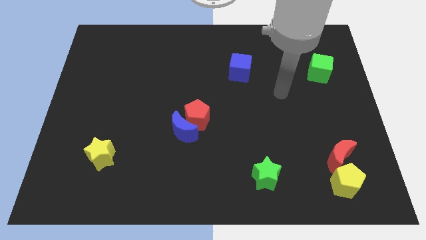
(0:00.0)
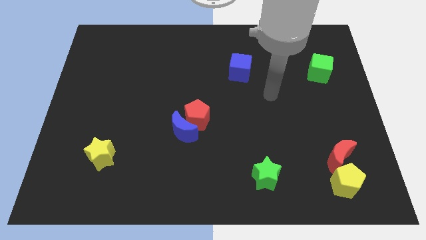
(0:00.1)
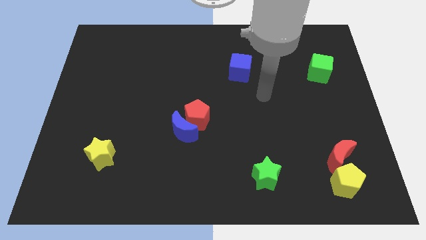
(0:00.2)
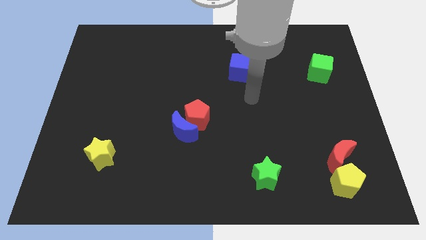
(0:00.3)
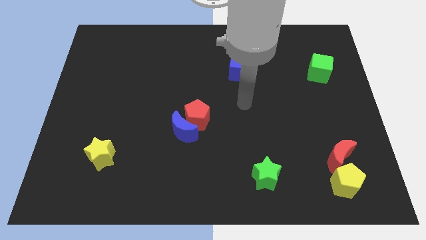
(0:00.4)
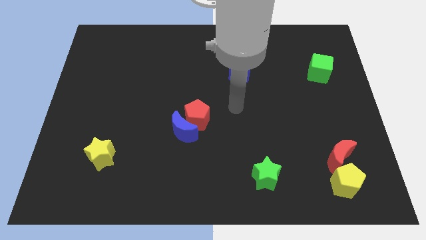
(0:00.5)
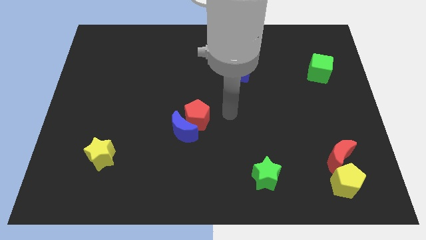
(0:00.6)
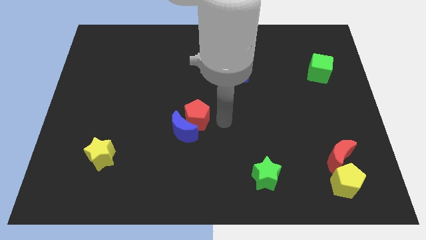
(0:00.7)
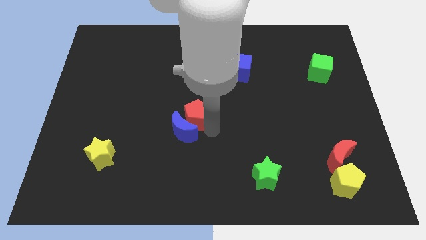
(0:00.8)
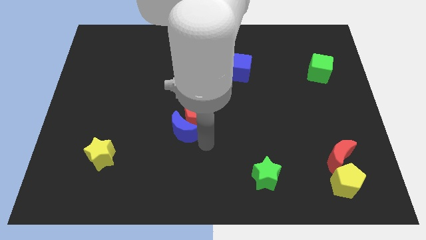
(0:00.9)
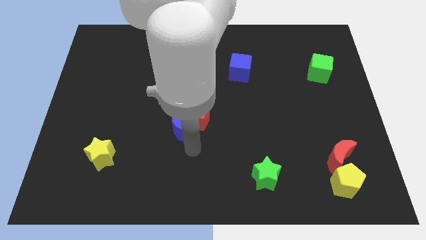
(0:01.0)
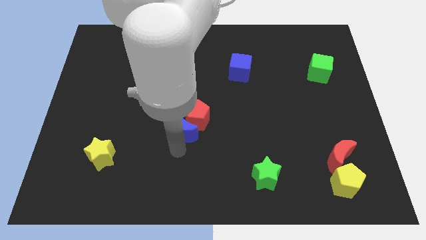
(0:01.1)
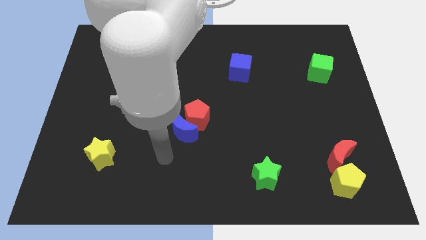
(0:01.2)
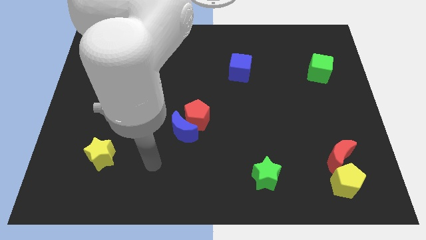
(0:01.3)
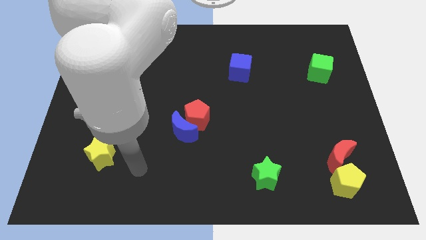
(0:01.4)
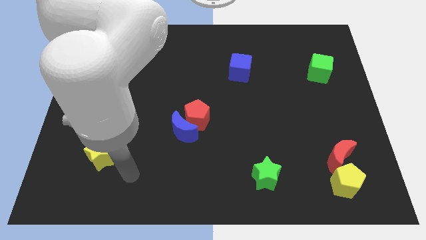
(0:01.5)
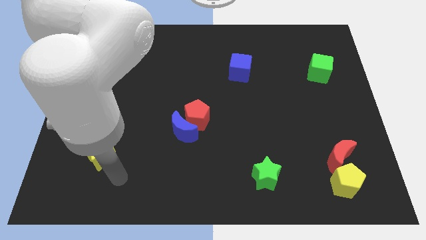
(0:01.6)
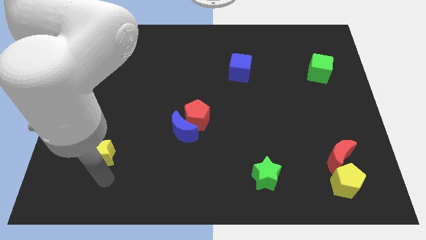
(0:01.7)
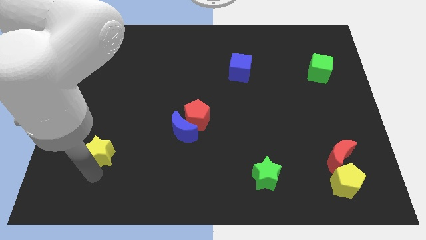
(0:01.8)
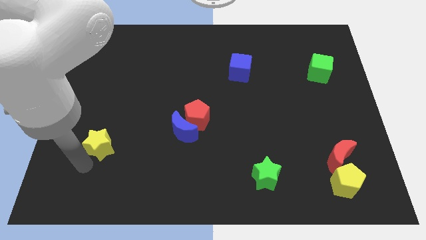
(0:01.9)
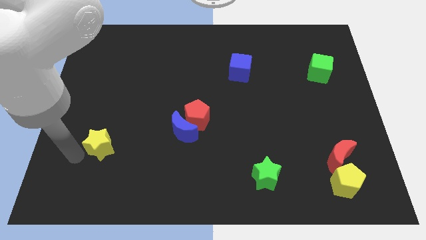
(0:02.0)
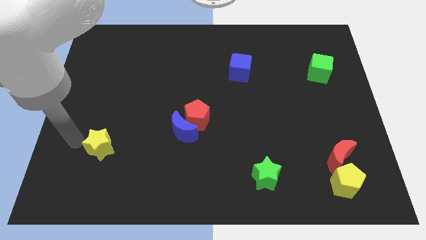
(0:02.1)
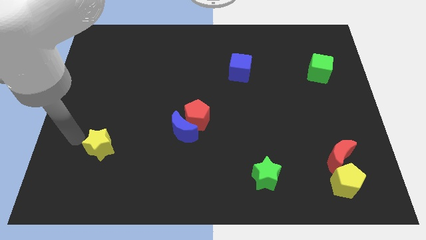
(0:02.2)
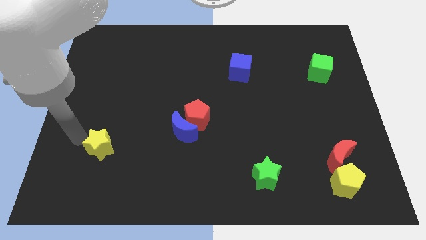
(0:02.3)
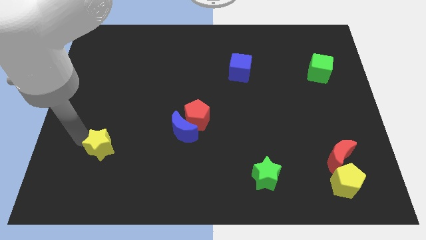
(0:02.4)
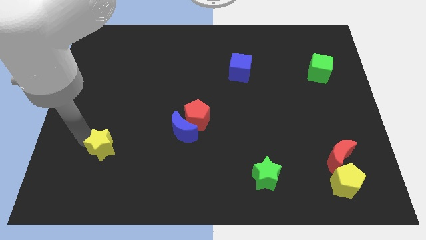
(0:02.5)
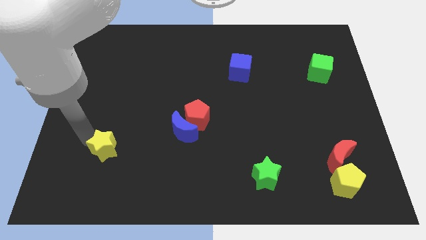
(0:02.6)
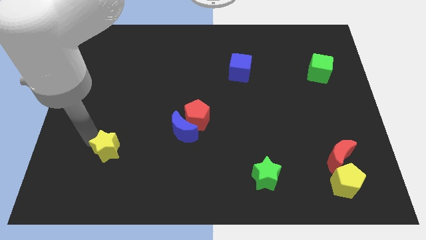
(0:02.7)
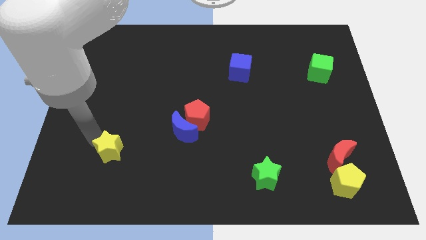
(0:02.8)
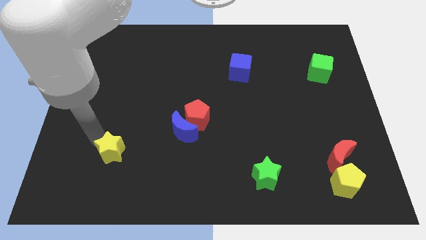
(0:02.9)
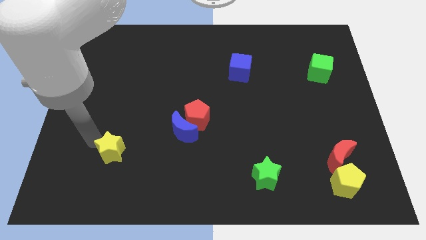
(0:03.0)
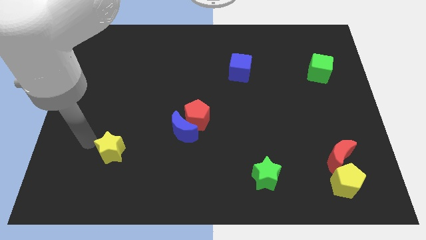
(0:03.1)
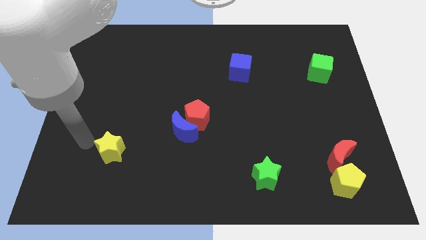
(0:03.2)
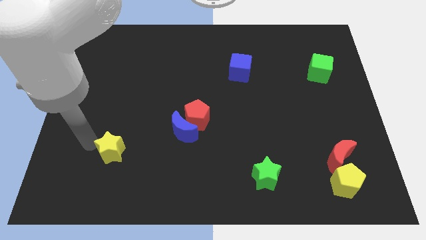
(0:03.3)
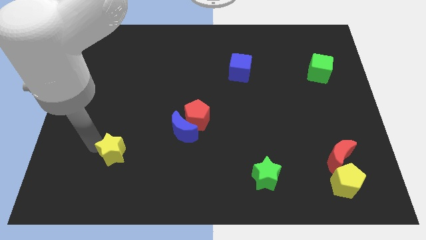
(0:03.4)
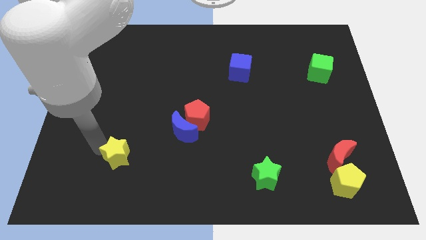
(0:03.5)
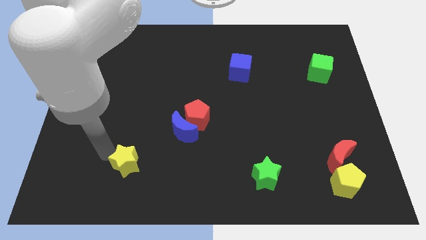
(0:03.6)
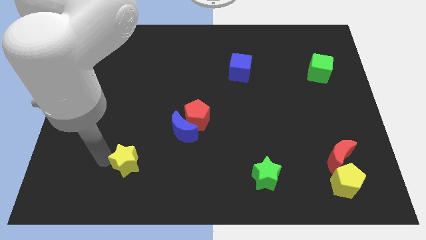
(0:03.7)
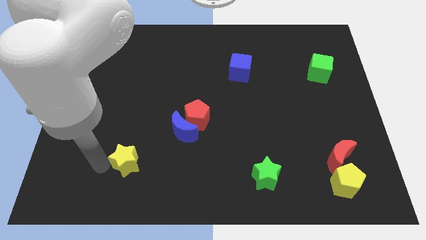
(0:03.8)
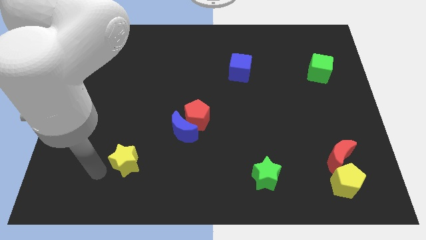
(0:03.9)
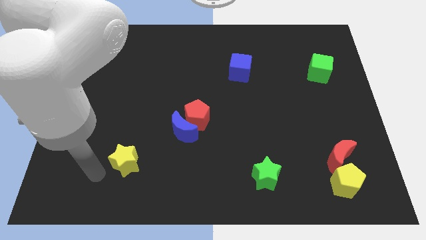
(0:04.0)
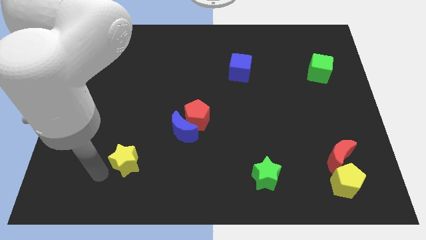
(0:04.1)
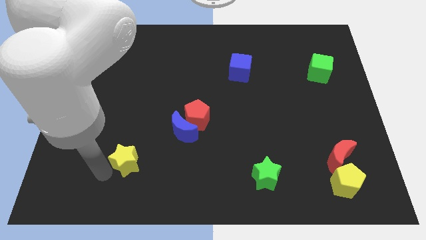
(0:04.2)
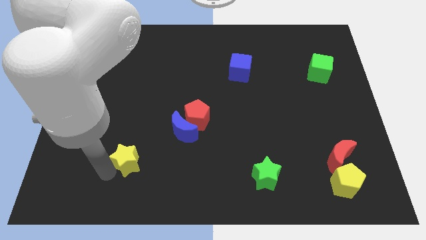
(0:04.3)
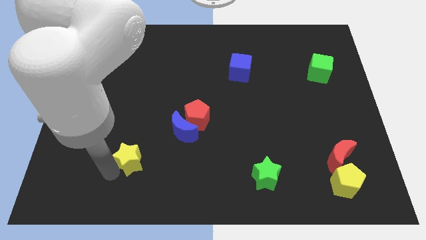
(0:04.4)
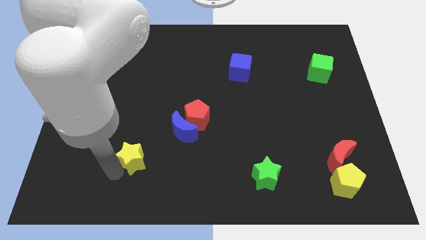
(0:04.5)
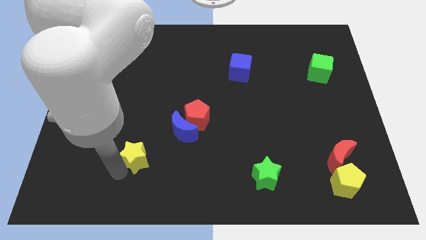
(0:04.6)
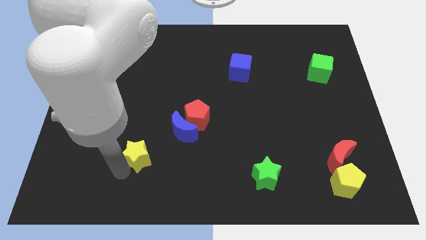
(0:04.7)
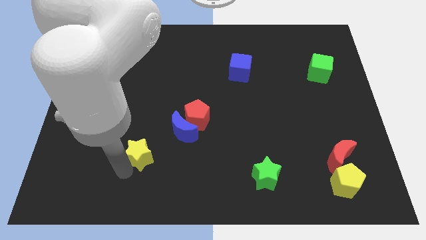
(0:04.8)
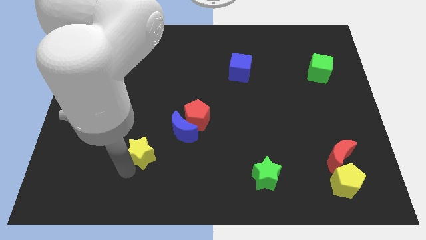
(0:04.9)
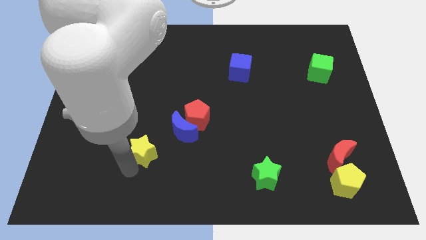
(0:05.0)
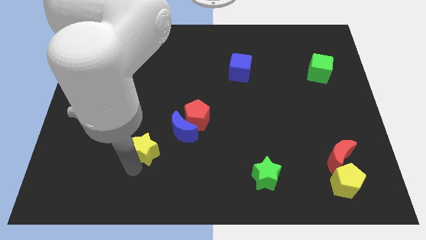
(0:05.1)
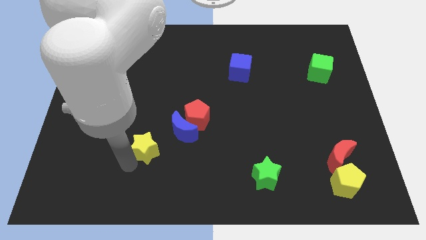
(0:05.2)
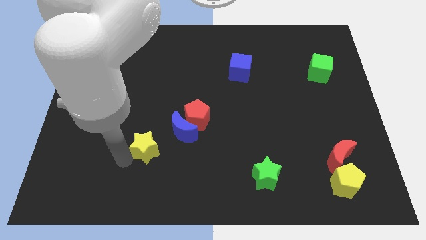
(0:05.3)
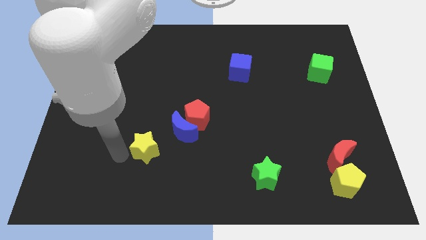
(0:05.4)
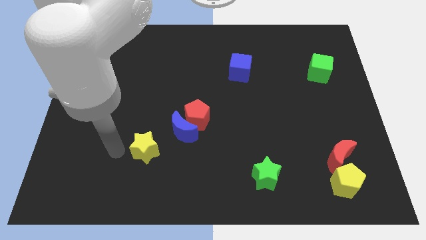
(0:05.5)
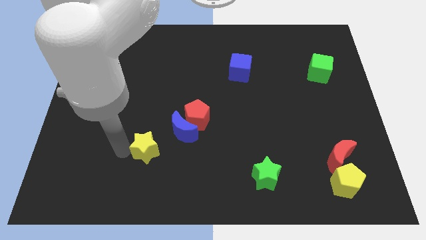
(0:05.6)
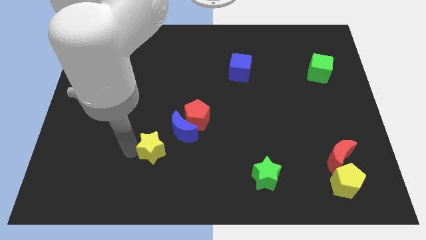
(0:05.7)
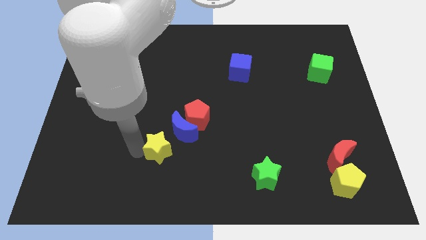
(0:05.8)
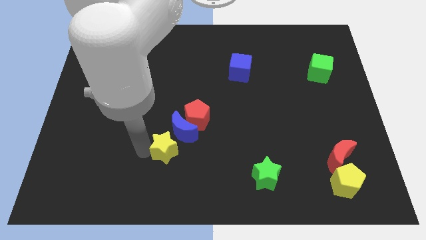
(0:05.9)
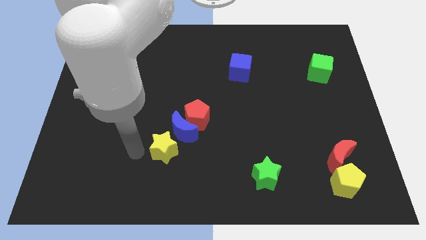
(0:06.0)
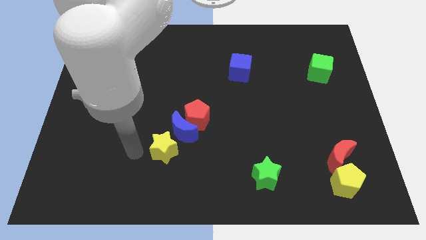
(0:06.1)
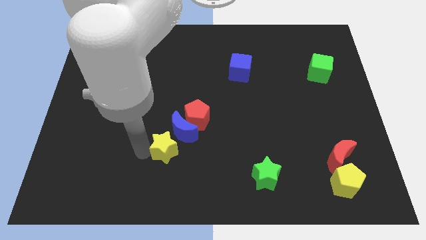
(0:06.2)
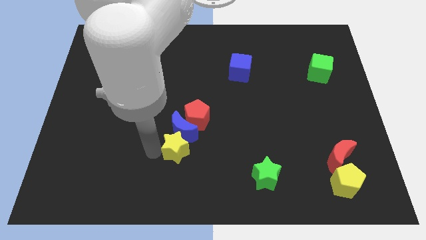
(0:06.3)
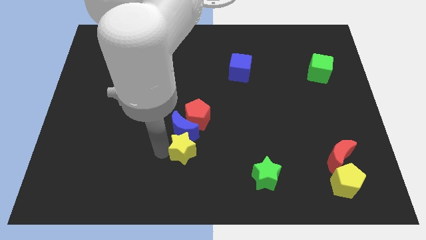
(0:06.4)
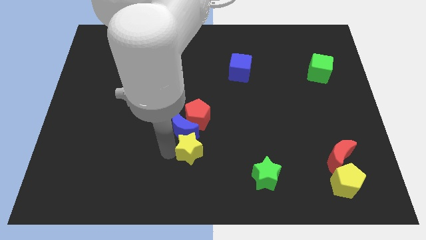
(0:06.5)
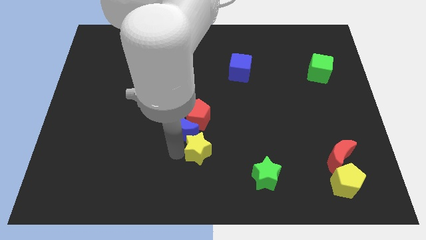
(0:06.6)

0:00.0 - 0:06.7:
slide the yellow star to the right

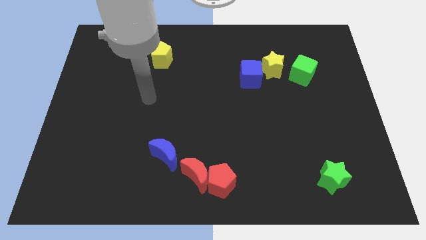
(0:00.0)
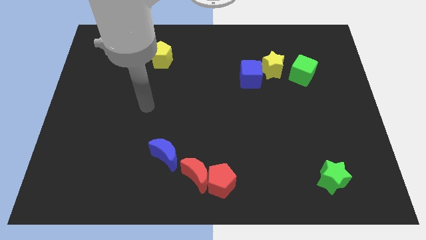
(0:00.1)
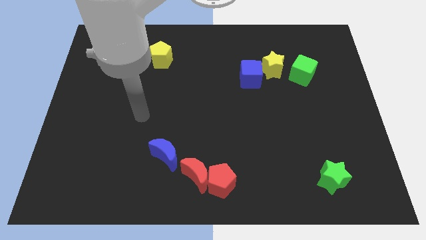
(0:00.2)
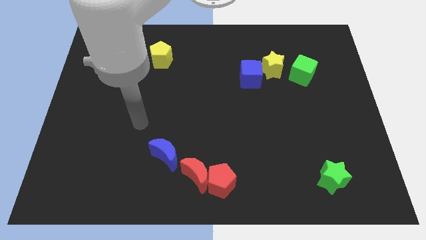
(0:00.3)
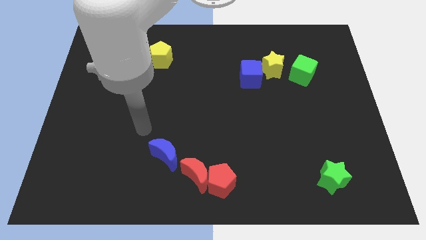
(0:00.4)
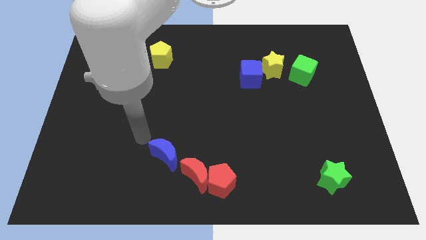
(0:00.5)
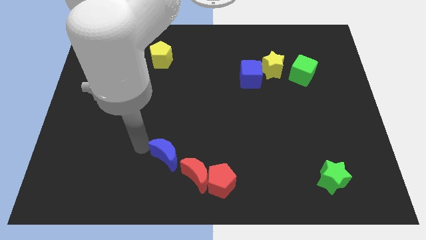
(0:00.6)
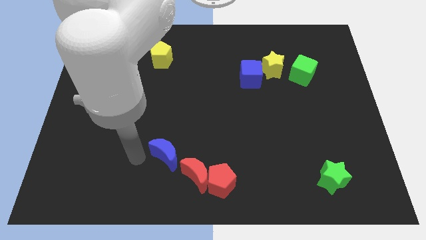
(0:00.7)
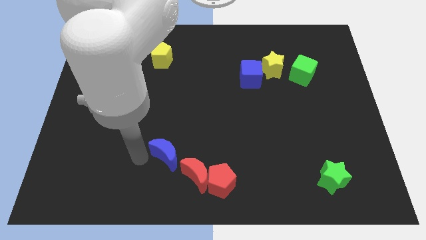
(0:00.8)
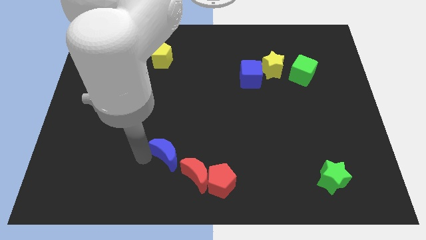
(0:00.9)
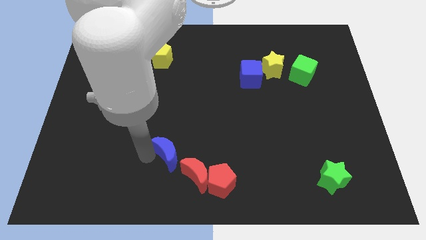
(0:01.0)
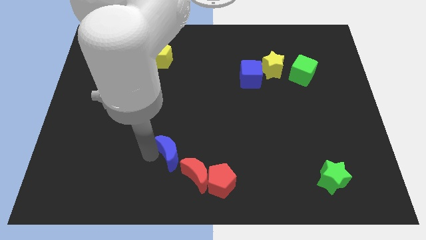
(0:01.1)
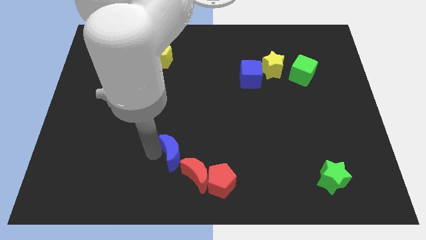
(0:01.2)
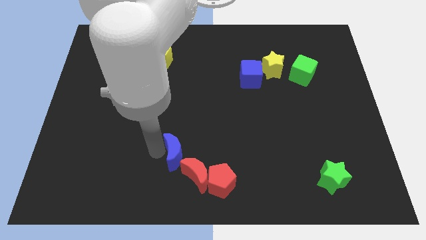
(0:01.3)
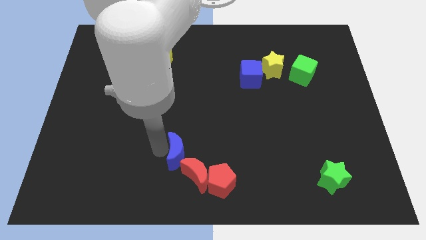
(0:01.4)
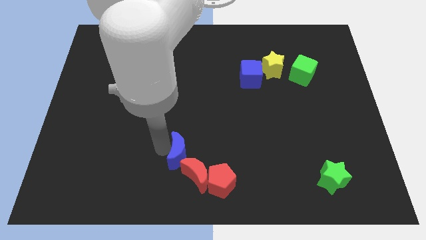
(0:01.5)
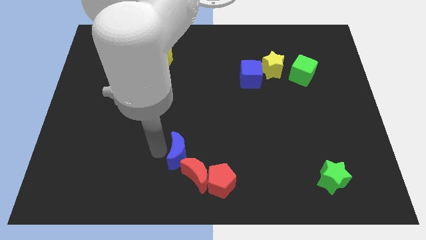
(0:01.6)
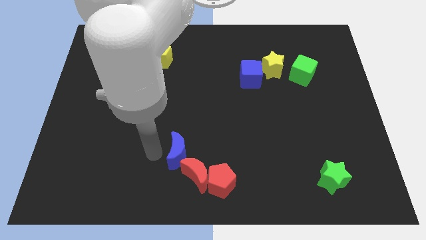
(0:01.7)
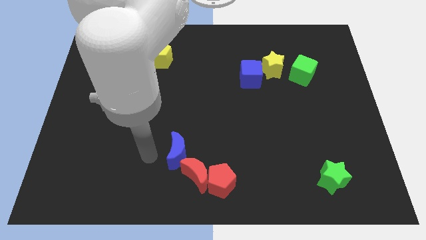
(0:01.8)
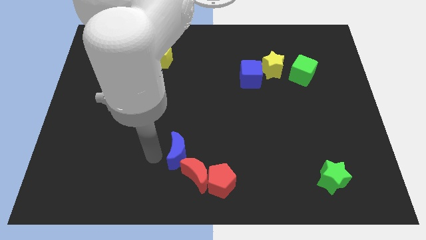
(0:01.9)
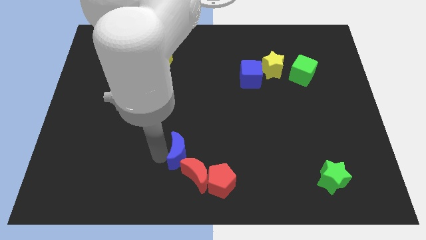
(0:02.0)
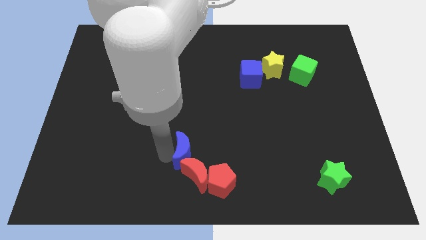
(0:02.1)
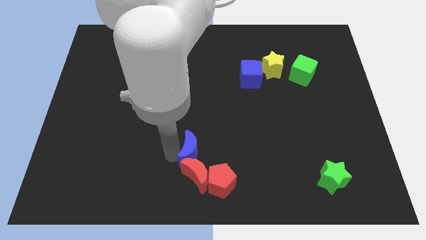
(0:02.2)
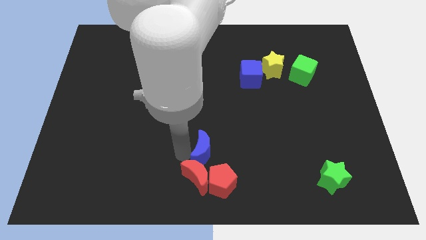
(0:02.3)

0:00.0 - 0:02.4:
slightly move the blue moon right
